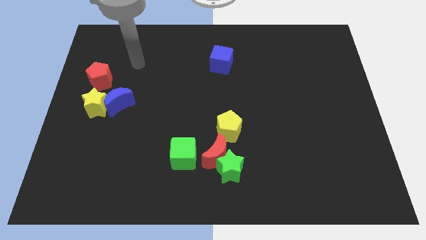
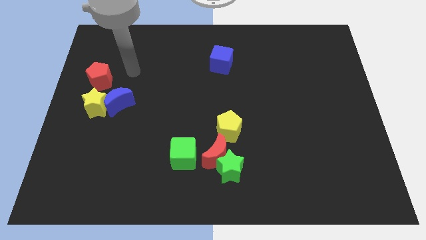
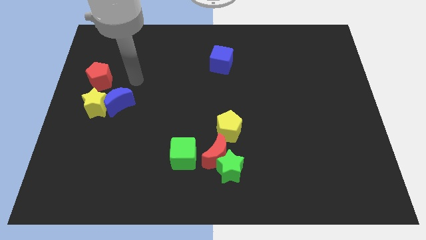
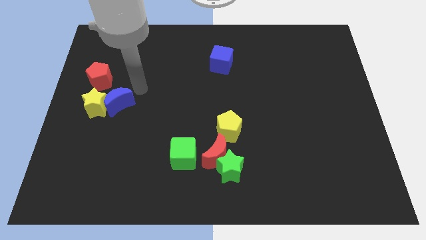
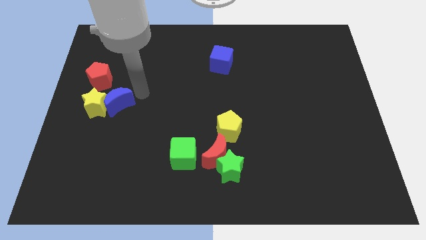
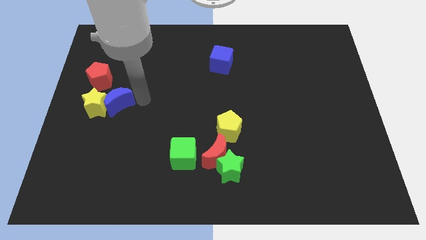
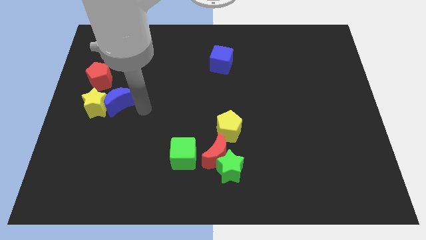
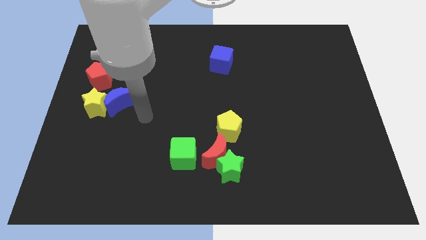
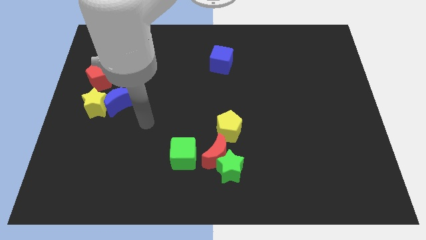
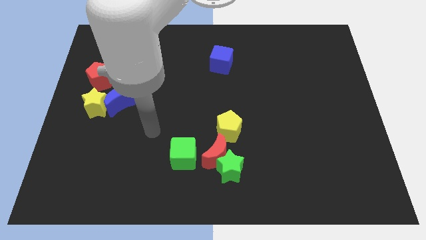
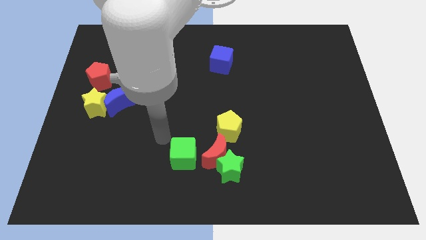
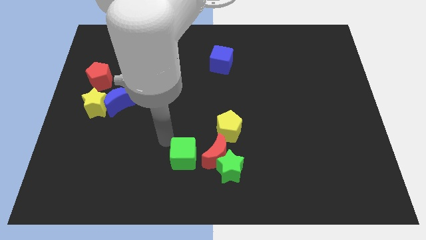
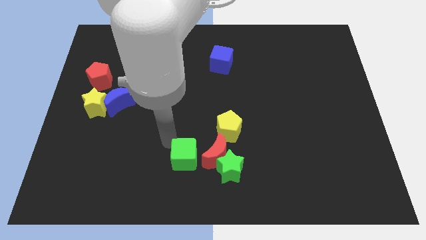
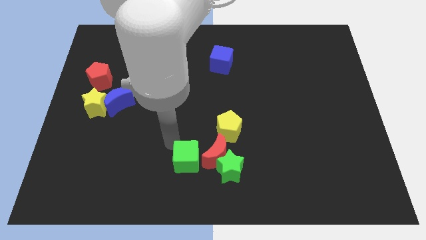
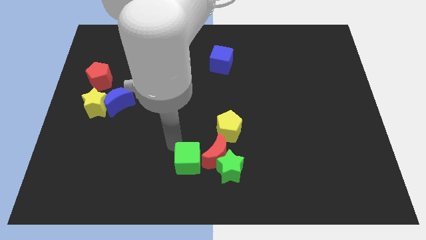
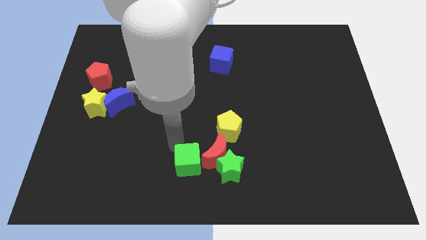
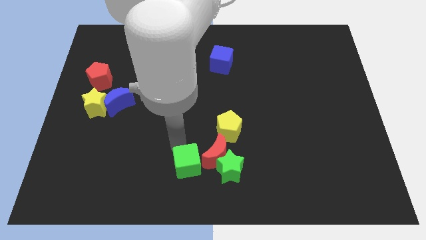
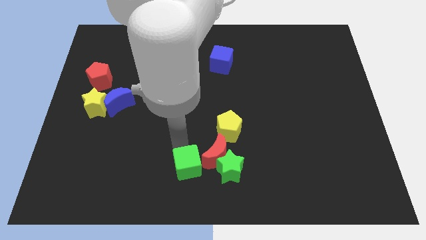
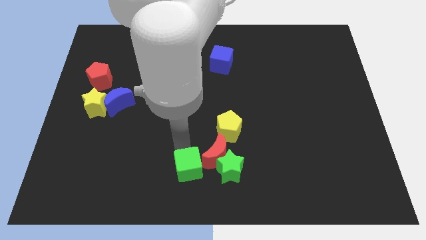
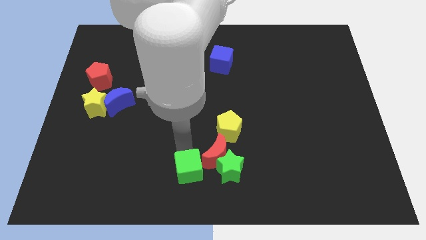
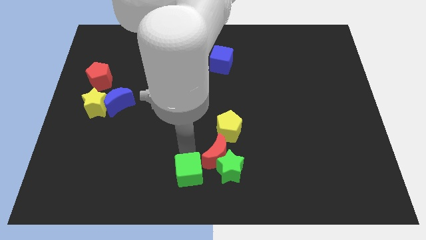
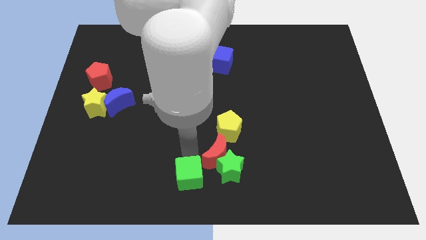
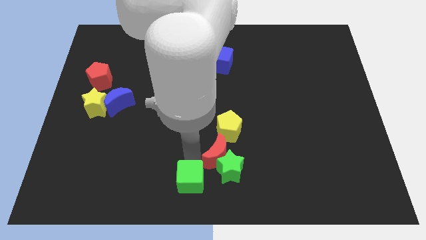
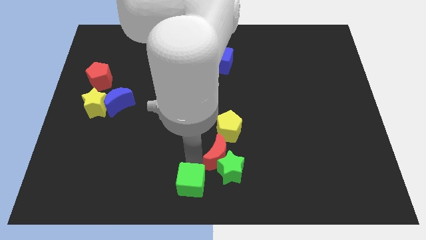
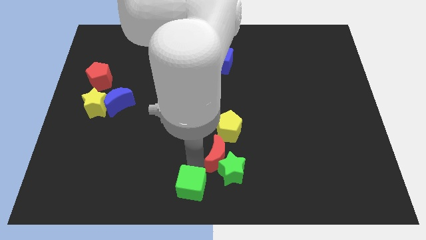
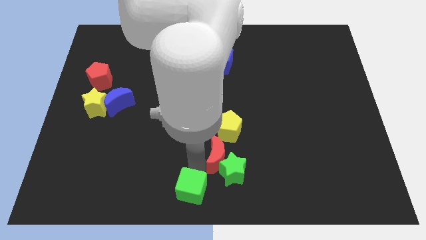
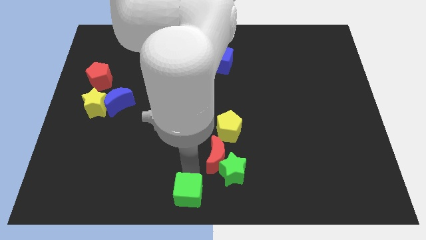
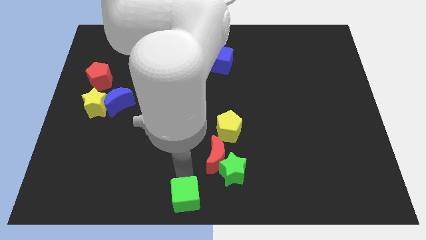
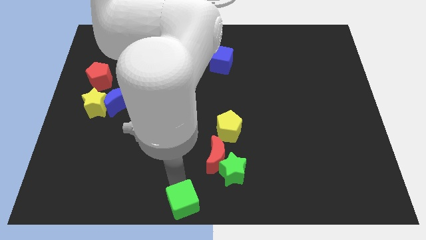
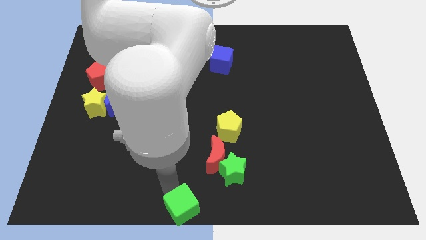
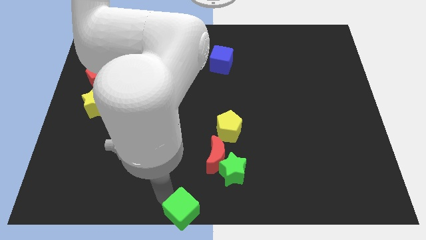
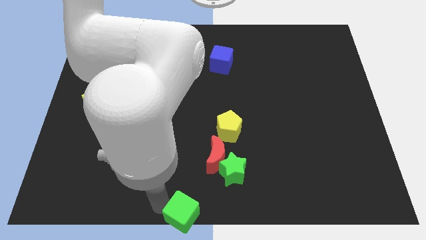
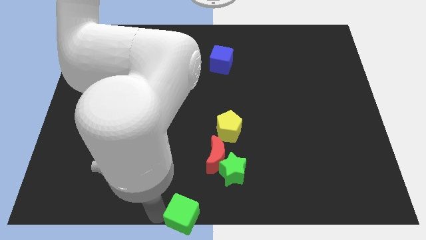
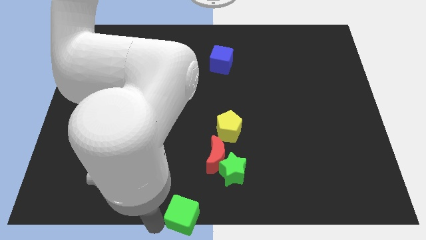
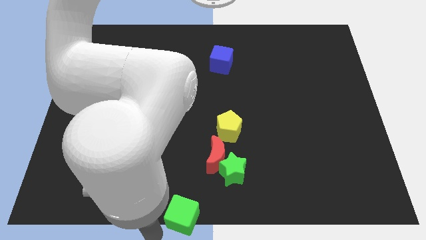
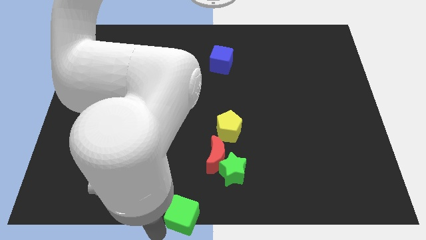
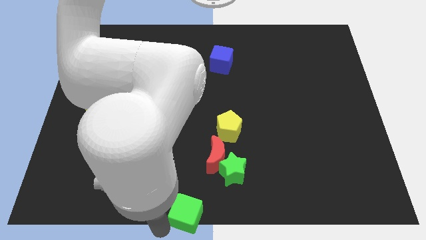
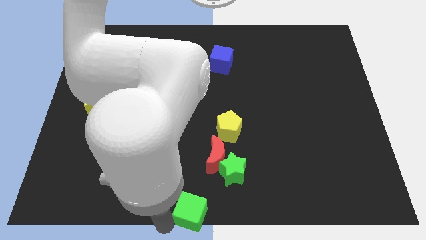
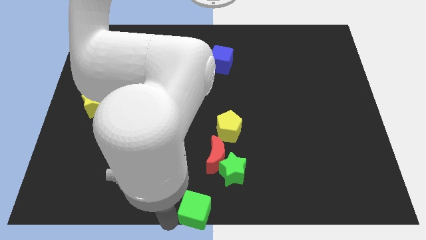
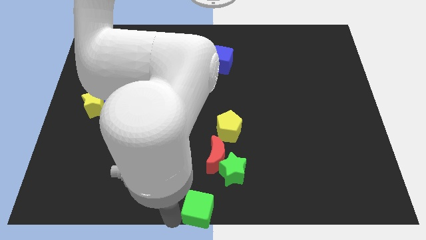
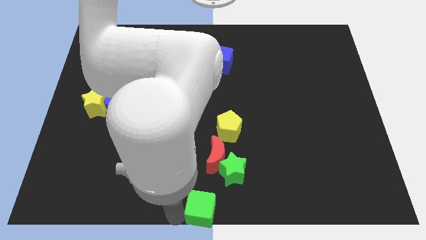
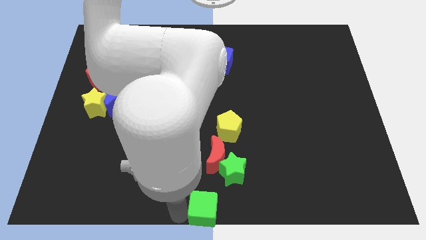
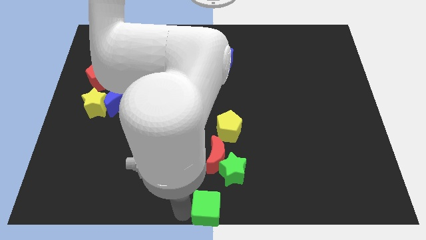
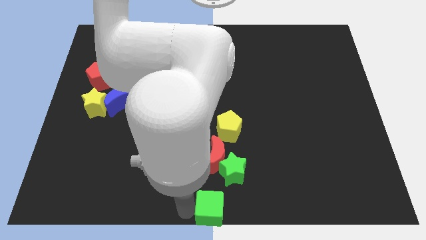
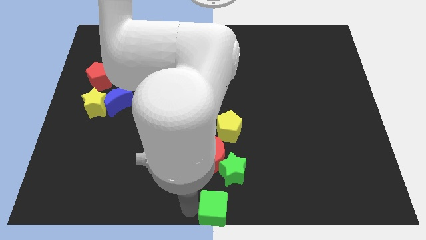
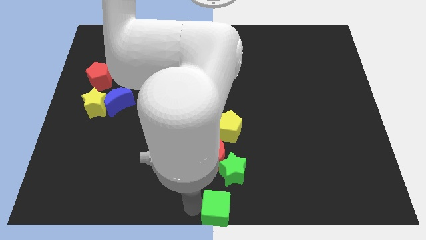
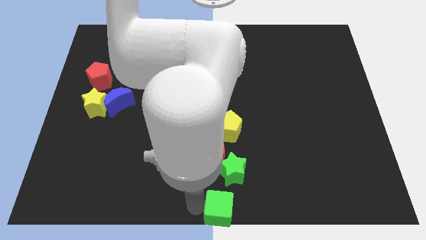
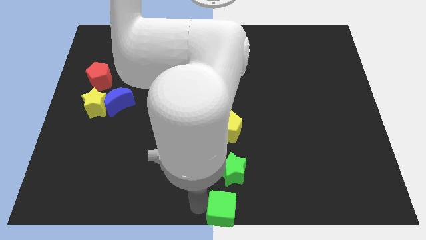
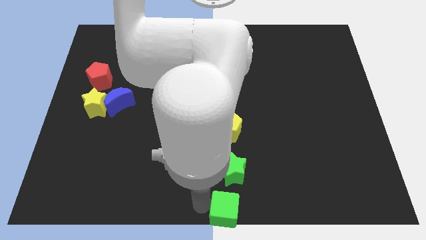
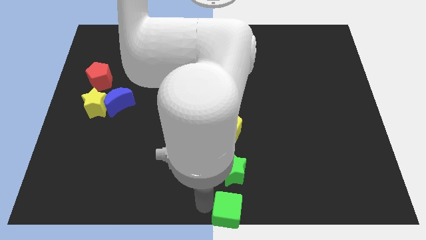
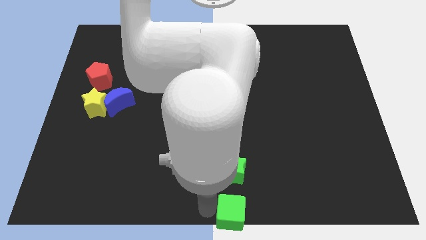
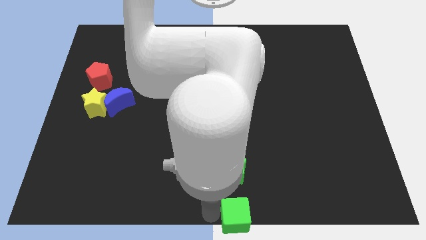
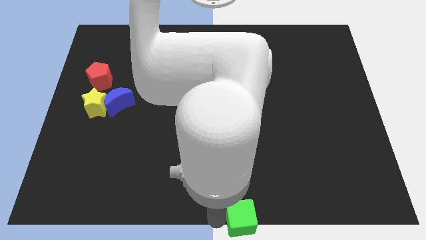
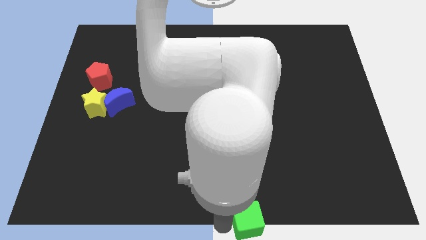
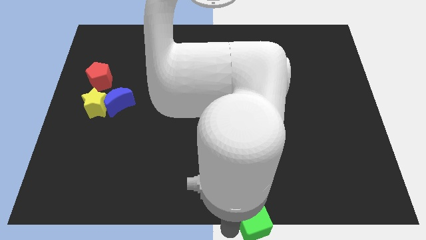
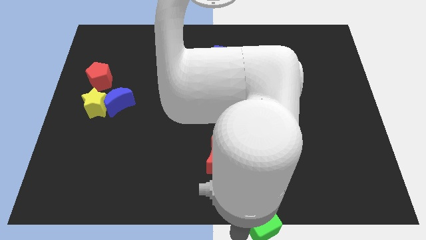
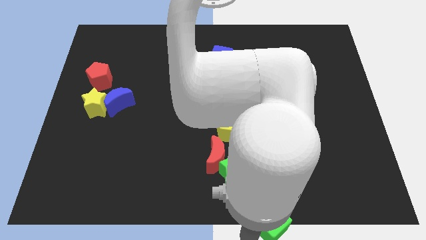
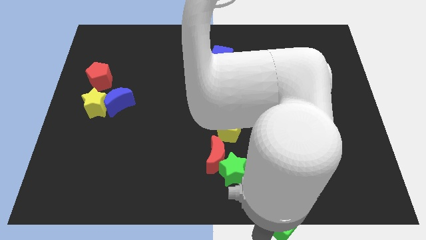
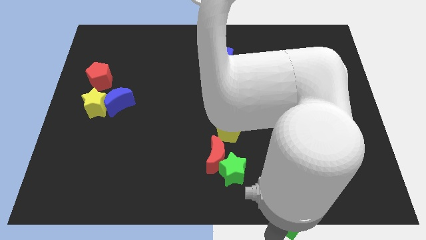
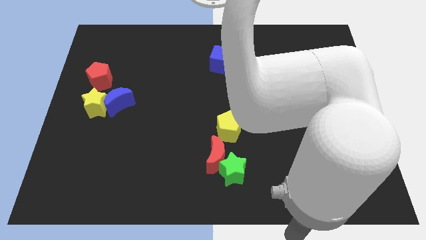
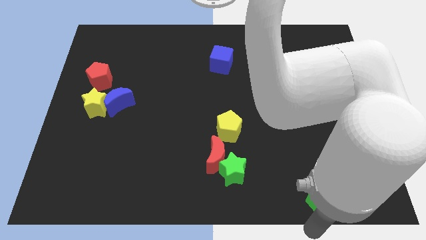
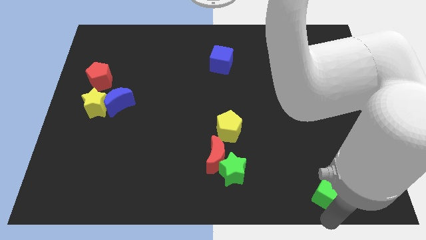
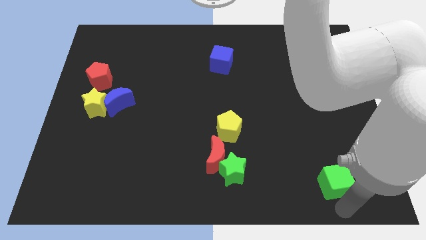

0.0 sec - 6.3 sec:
push the green cube to the right slightly

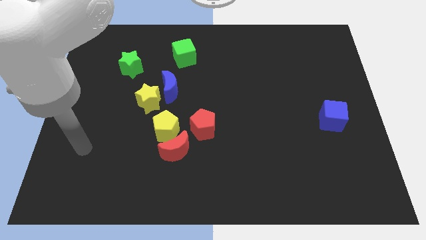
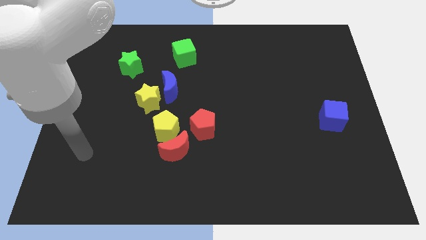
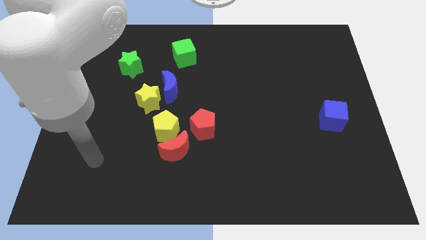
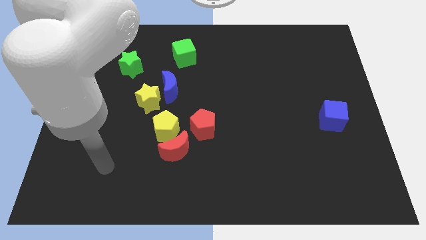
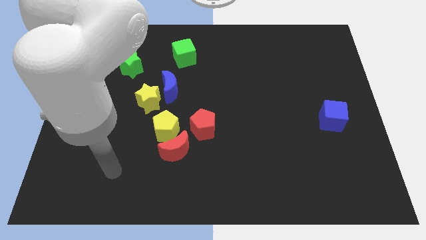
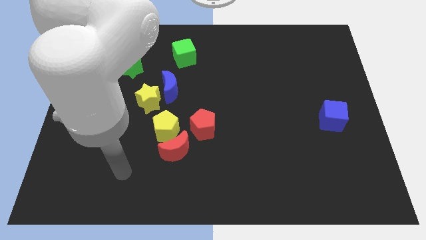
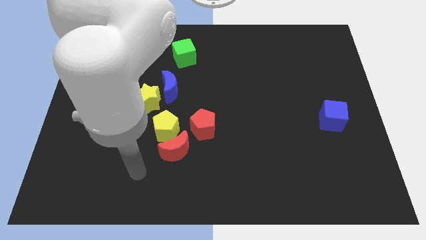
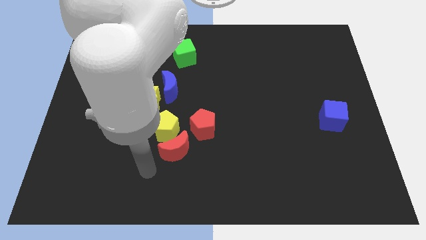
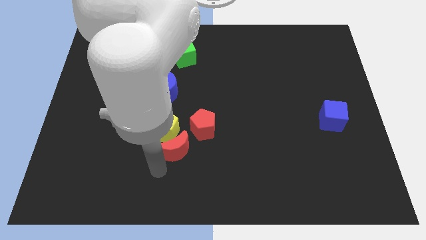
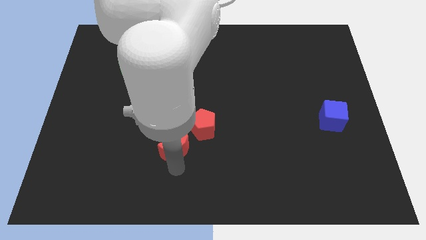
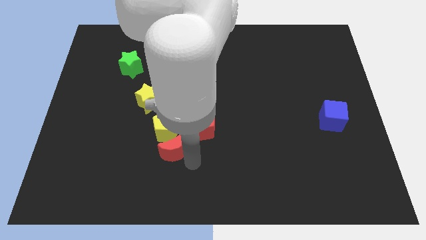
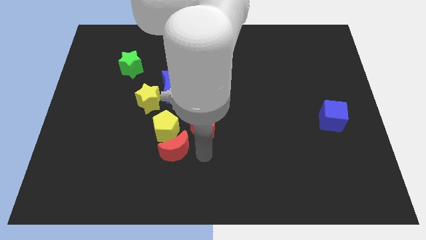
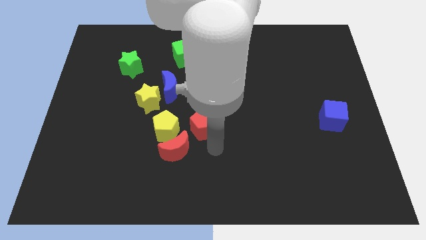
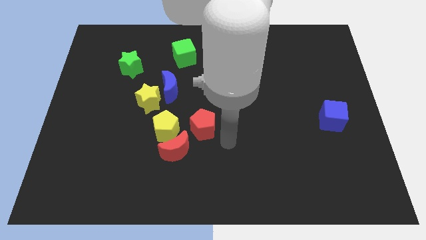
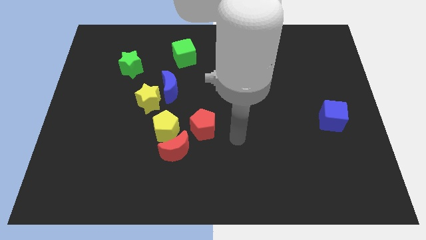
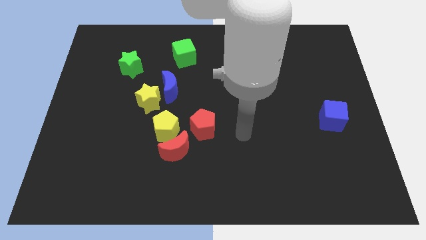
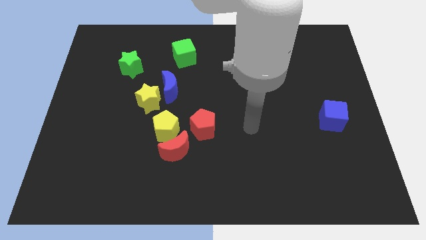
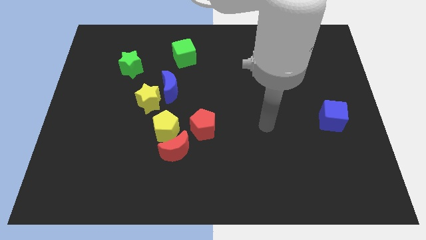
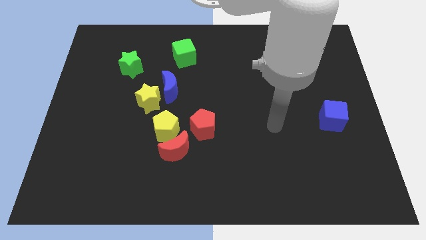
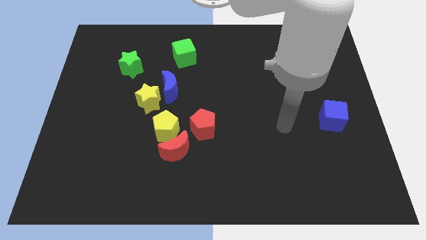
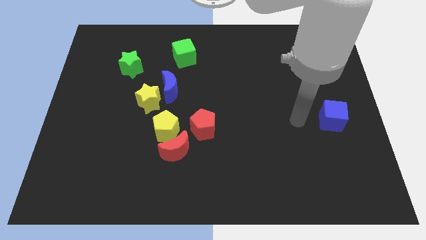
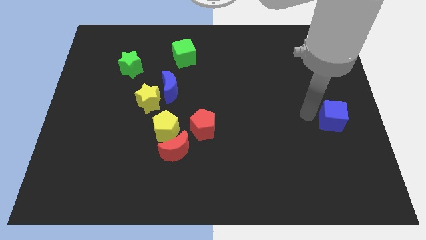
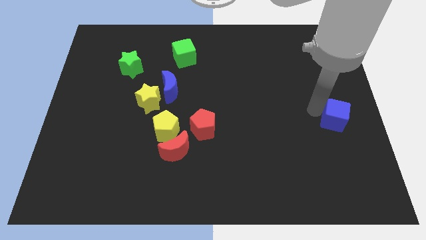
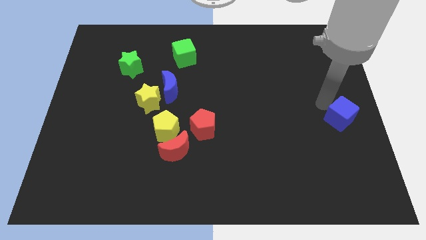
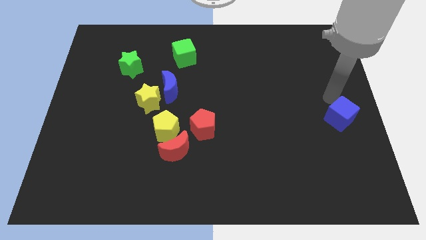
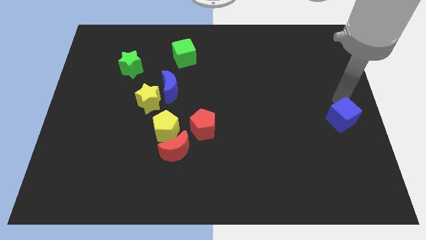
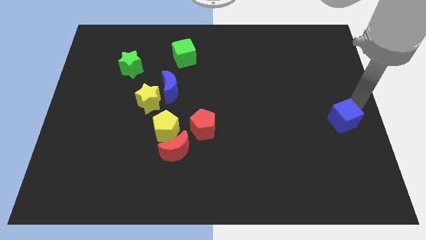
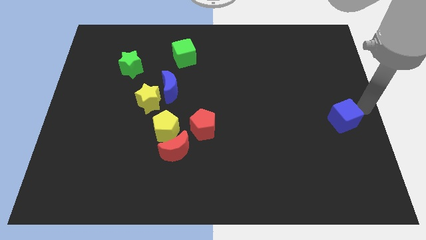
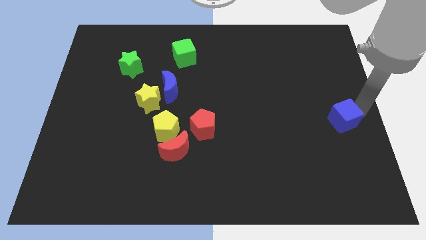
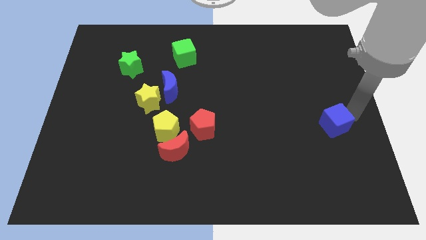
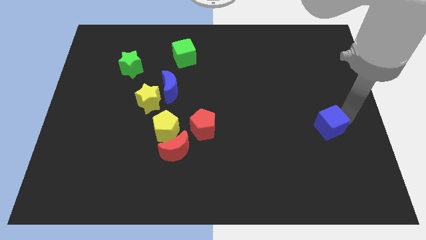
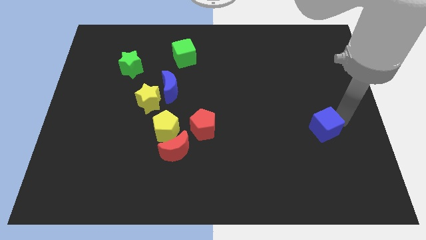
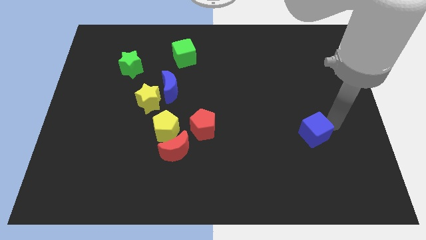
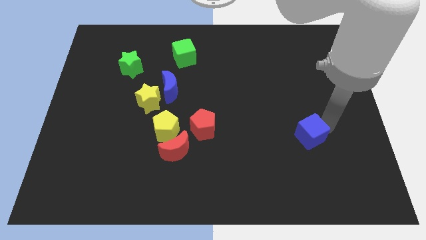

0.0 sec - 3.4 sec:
push the blue cube a bit diagonally downwards and left
